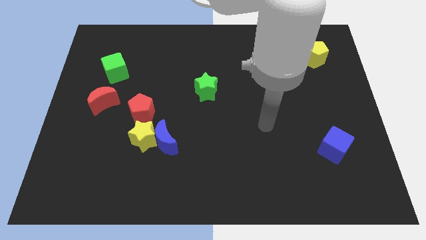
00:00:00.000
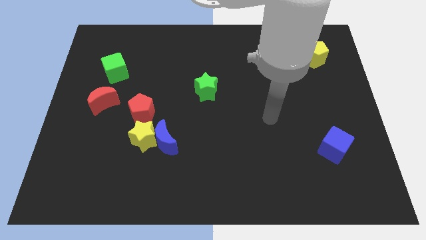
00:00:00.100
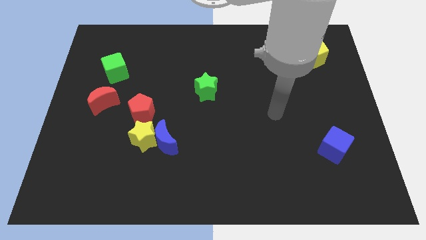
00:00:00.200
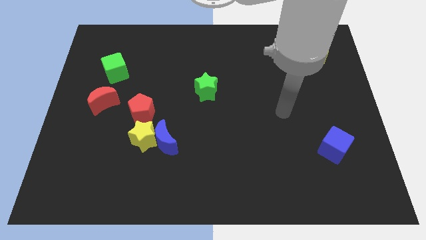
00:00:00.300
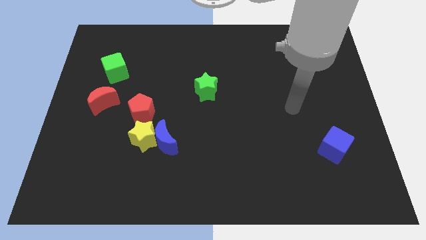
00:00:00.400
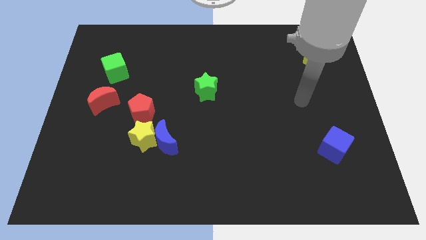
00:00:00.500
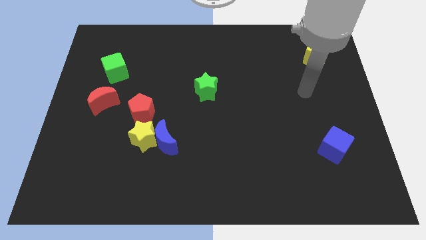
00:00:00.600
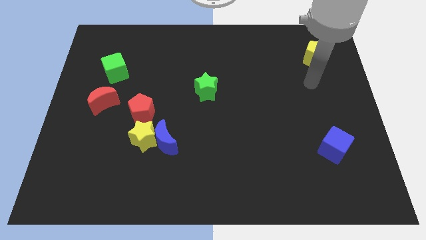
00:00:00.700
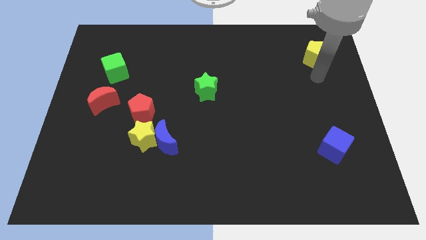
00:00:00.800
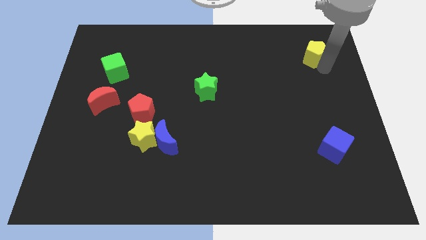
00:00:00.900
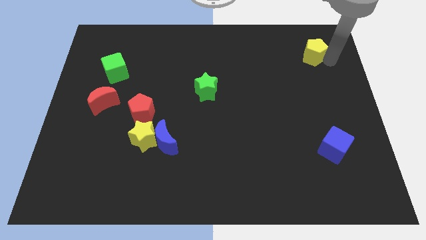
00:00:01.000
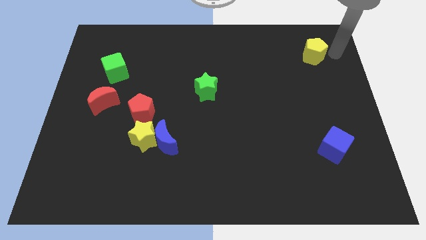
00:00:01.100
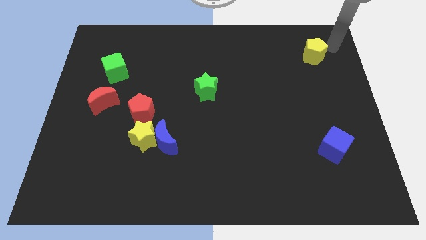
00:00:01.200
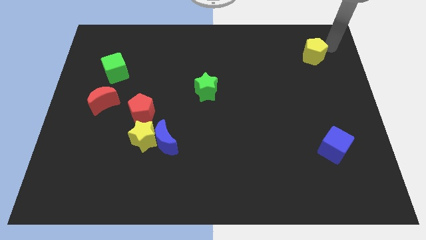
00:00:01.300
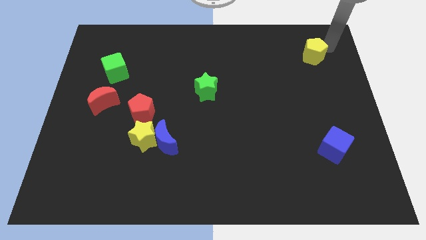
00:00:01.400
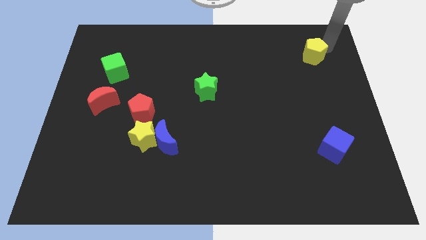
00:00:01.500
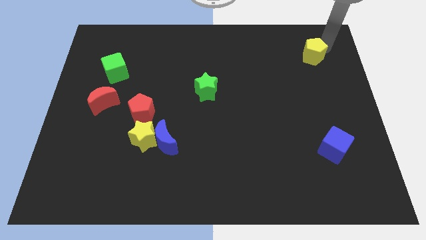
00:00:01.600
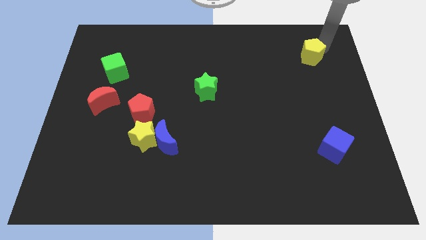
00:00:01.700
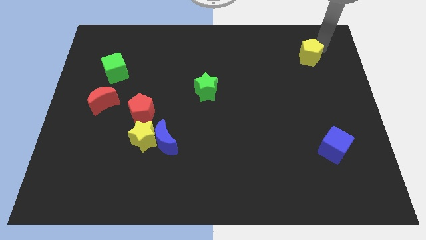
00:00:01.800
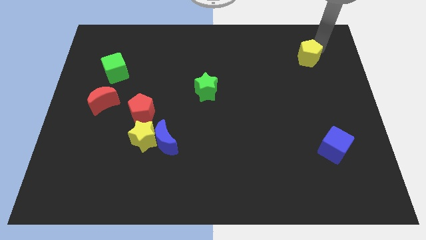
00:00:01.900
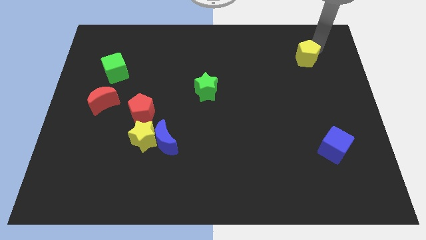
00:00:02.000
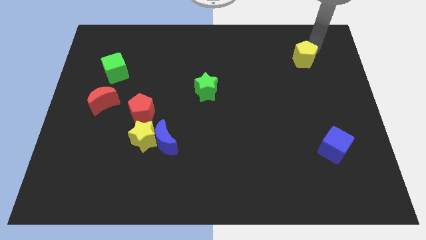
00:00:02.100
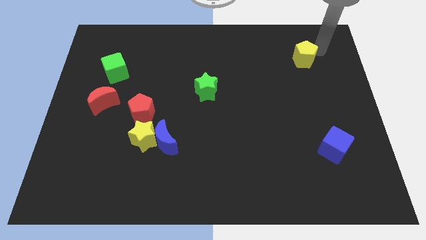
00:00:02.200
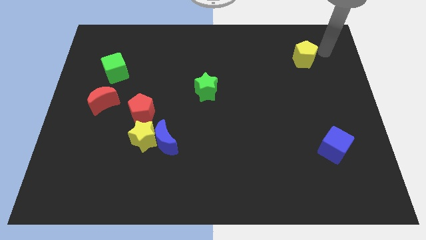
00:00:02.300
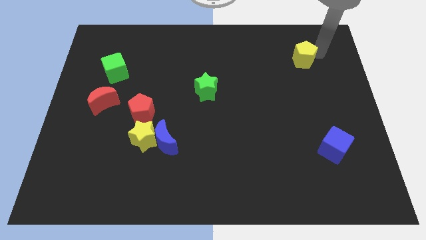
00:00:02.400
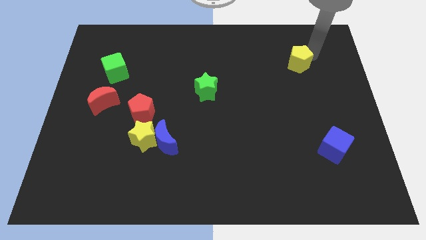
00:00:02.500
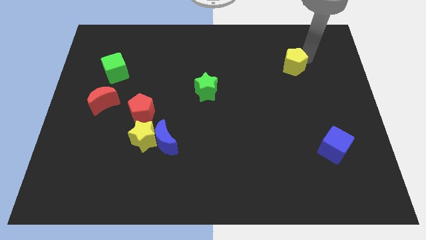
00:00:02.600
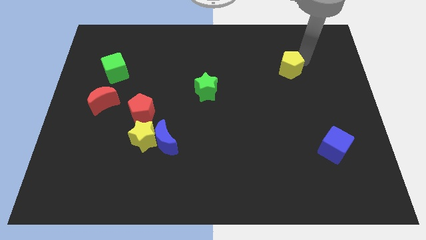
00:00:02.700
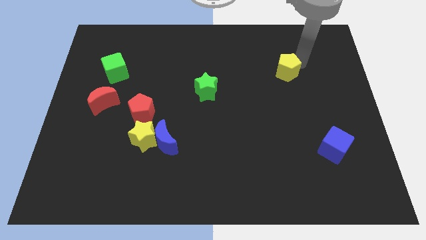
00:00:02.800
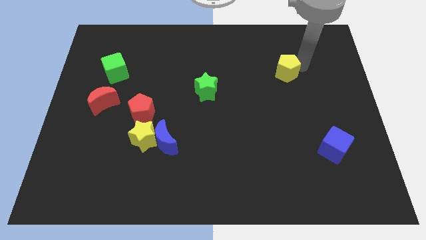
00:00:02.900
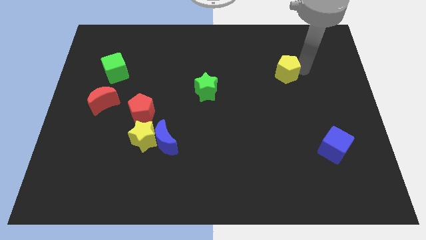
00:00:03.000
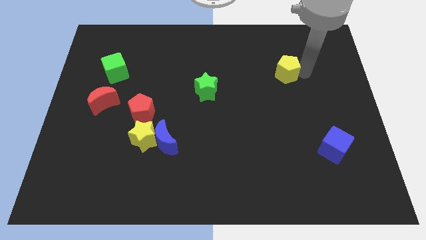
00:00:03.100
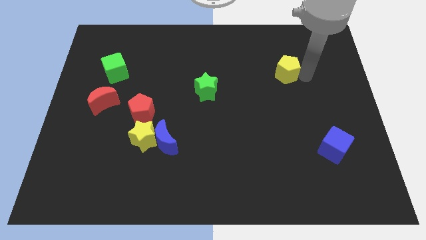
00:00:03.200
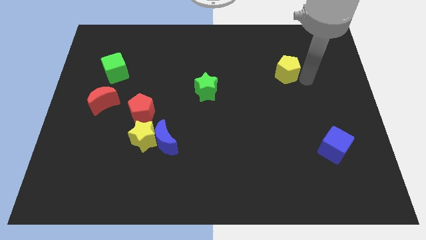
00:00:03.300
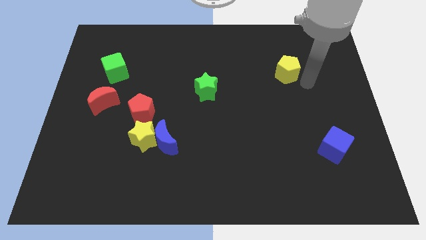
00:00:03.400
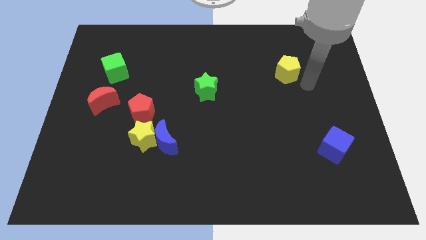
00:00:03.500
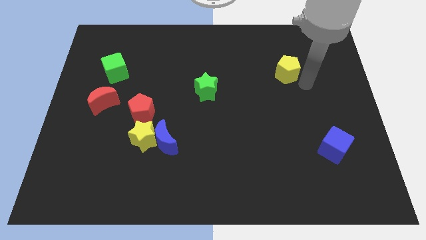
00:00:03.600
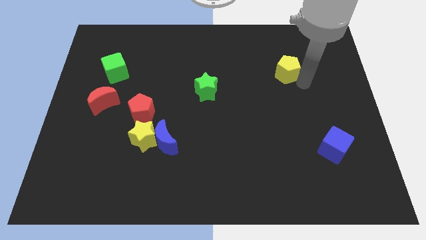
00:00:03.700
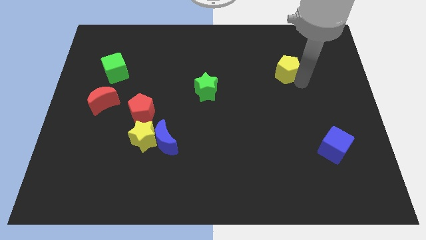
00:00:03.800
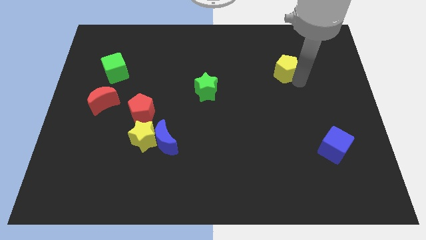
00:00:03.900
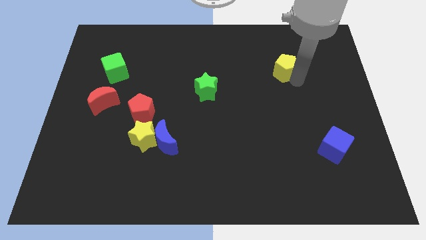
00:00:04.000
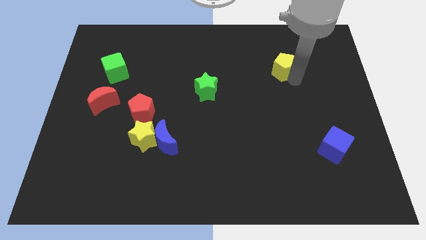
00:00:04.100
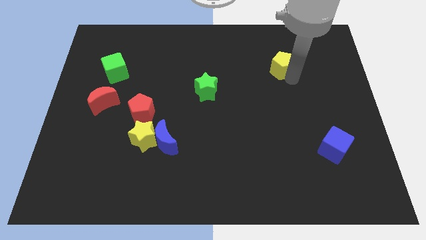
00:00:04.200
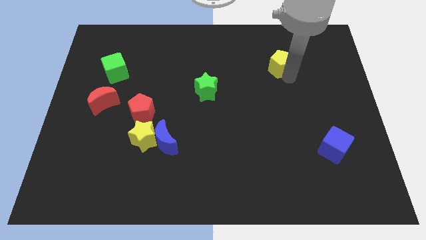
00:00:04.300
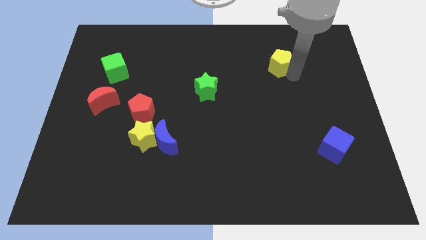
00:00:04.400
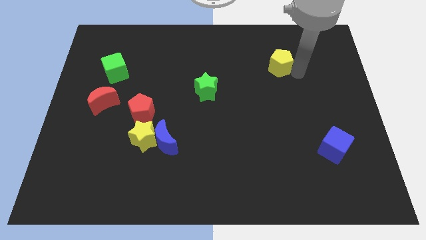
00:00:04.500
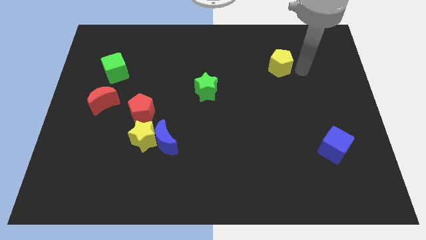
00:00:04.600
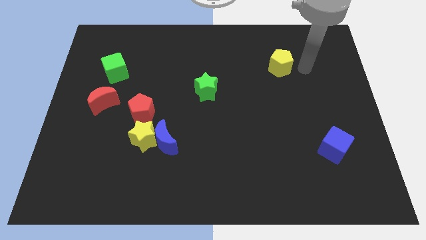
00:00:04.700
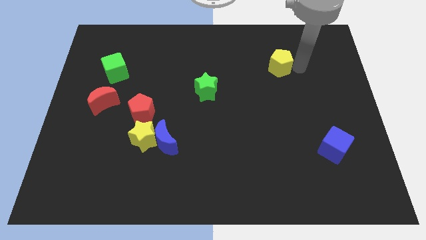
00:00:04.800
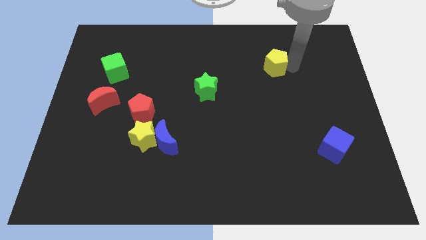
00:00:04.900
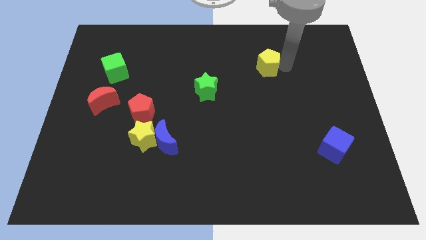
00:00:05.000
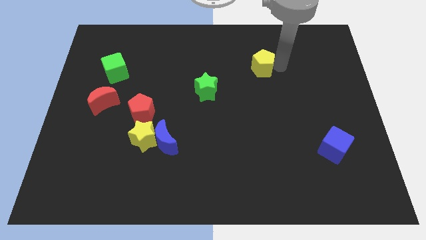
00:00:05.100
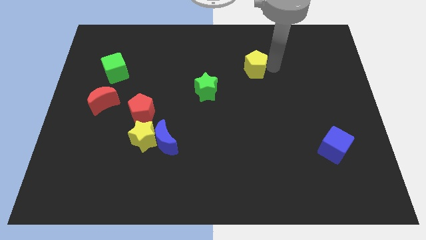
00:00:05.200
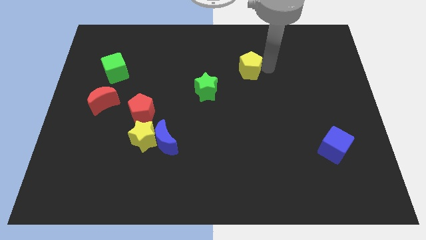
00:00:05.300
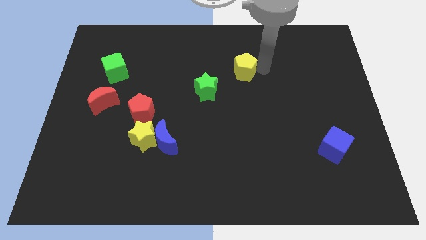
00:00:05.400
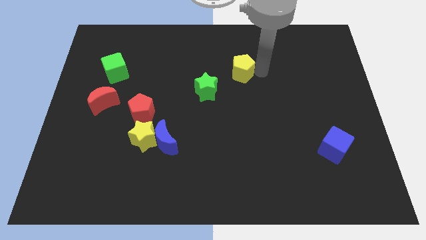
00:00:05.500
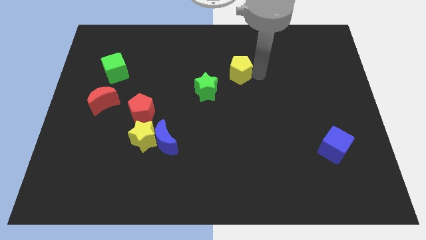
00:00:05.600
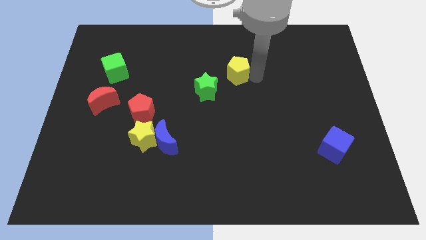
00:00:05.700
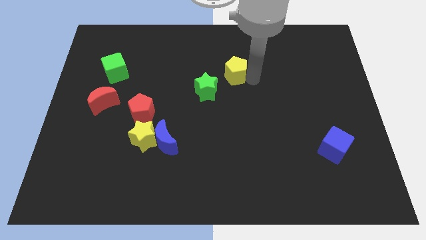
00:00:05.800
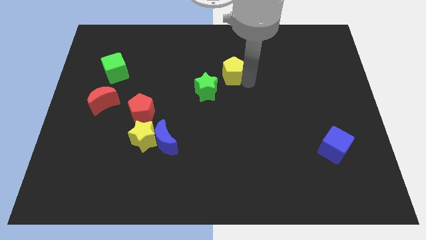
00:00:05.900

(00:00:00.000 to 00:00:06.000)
slide the yellow pentagon left

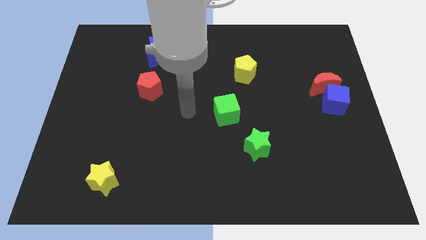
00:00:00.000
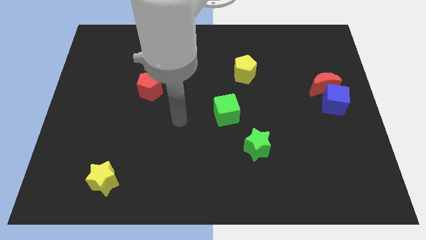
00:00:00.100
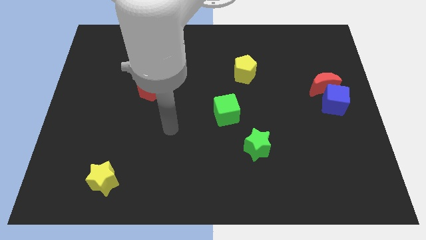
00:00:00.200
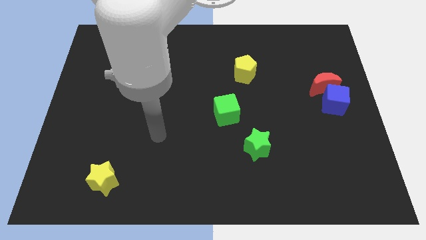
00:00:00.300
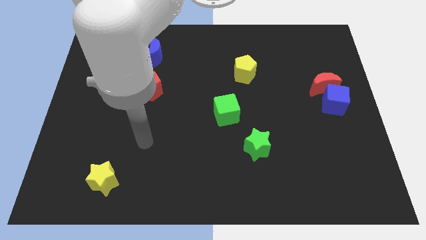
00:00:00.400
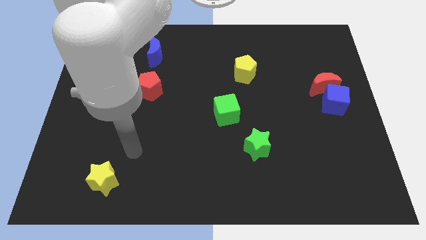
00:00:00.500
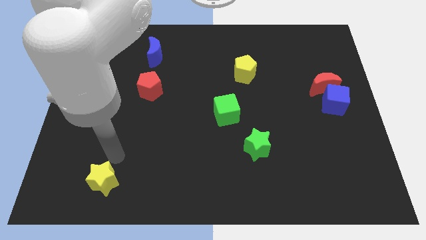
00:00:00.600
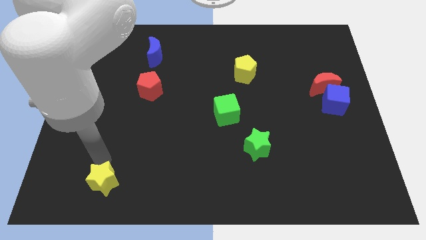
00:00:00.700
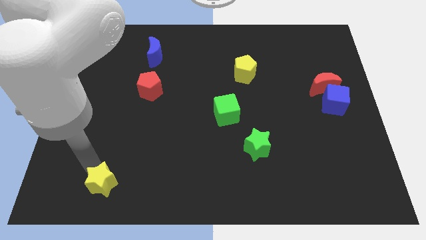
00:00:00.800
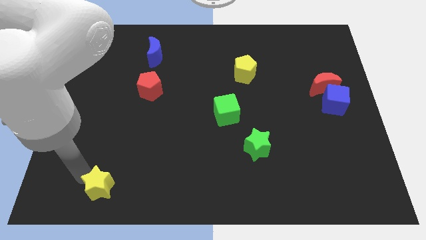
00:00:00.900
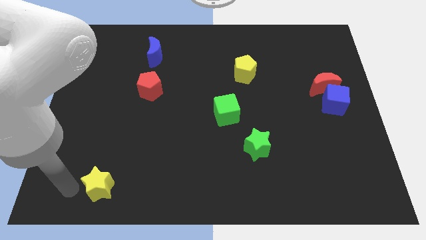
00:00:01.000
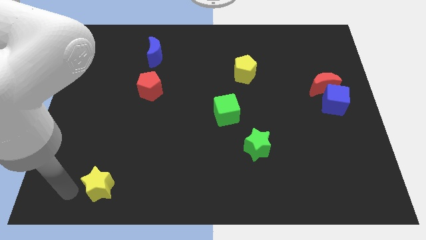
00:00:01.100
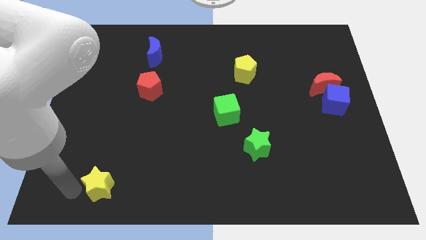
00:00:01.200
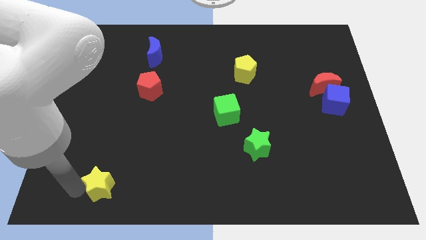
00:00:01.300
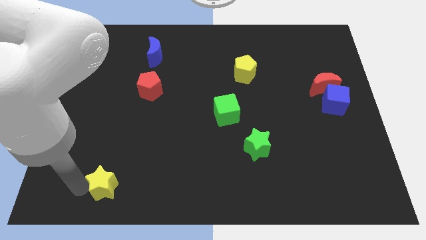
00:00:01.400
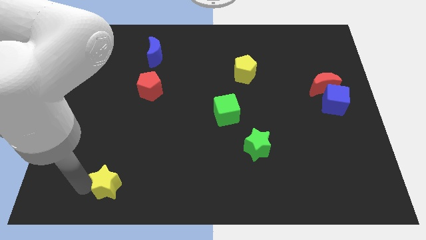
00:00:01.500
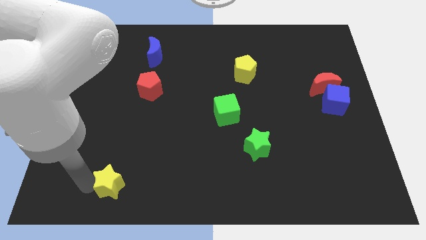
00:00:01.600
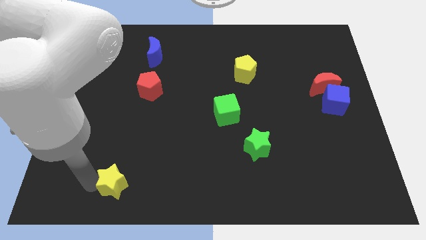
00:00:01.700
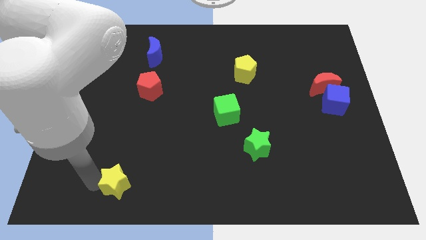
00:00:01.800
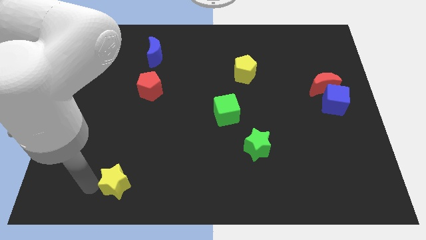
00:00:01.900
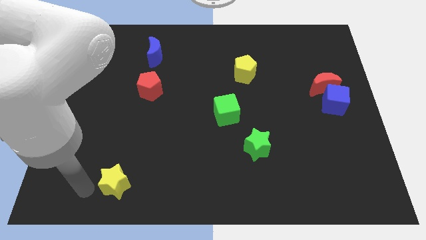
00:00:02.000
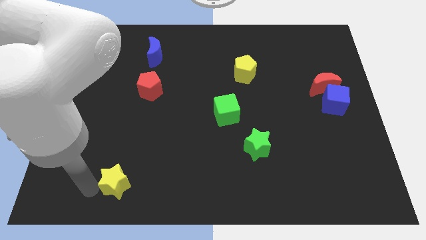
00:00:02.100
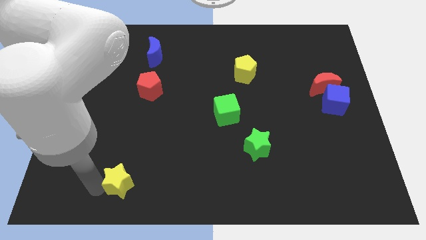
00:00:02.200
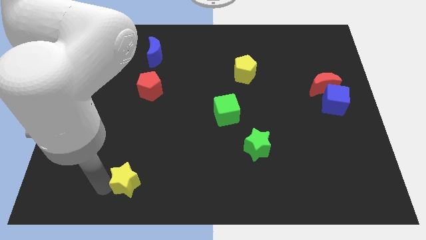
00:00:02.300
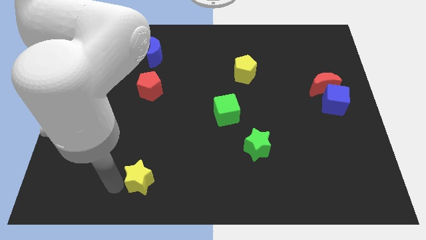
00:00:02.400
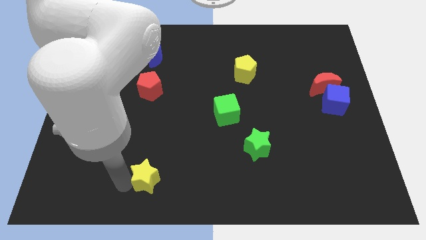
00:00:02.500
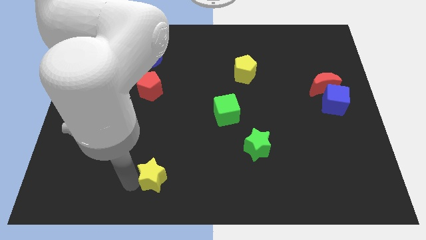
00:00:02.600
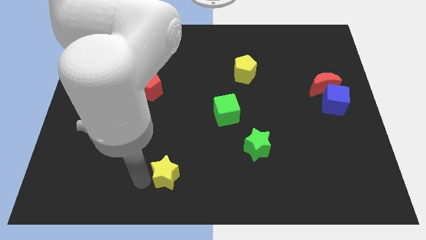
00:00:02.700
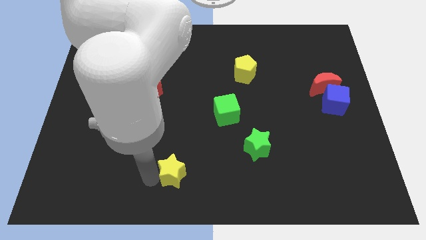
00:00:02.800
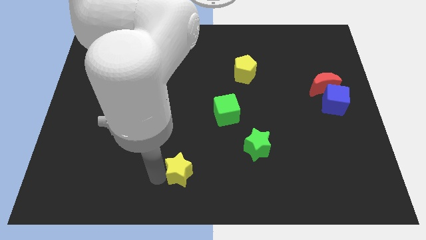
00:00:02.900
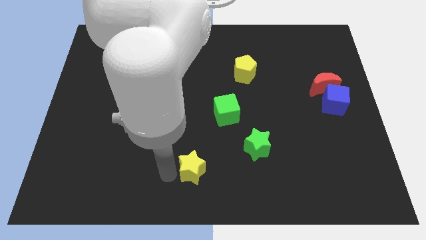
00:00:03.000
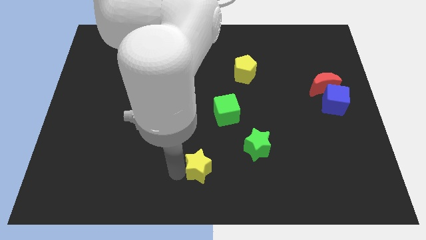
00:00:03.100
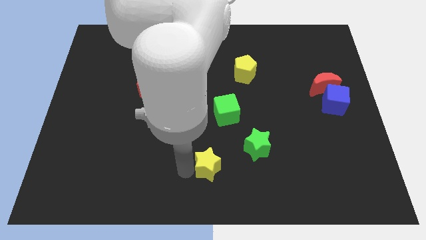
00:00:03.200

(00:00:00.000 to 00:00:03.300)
slide the yellow star to the right
